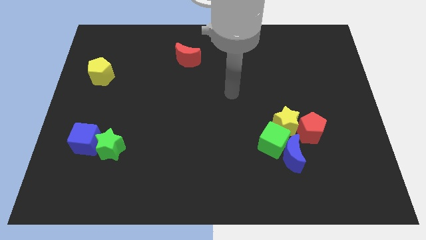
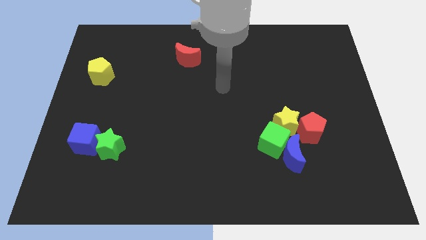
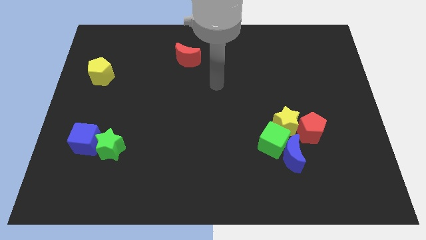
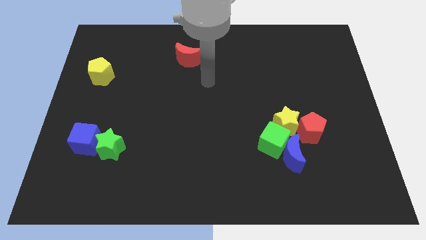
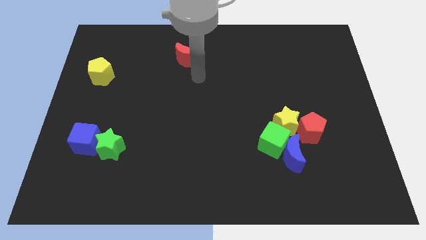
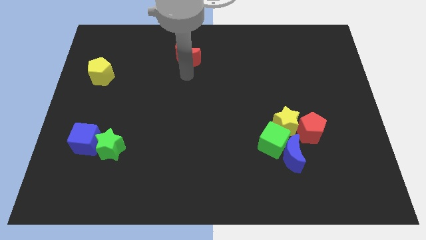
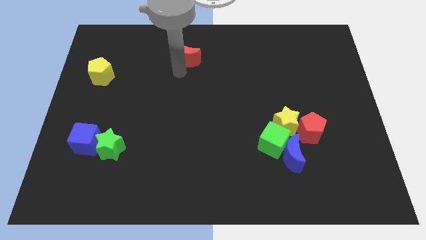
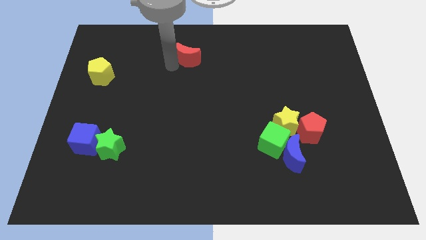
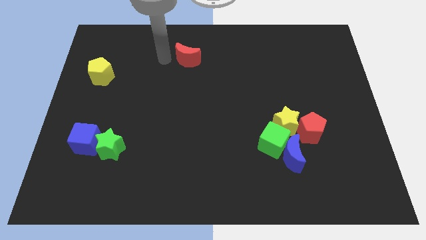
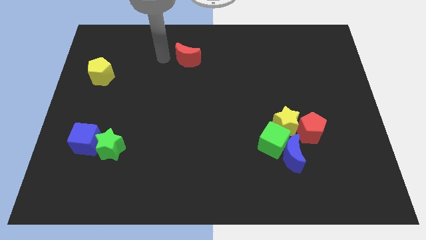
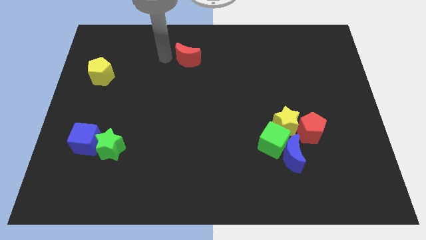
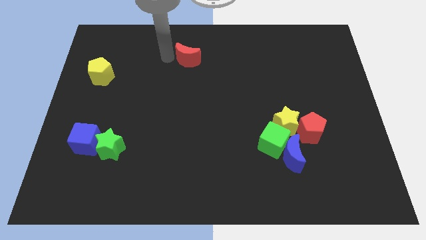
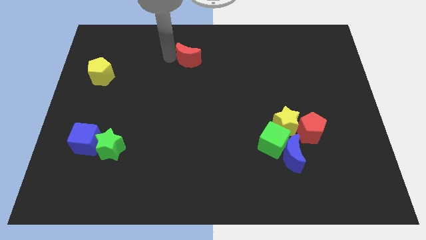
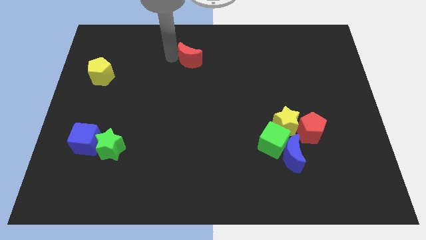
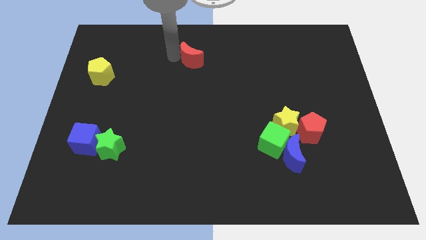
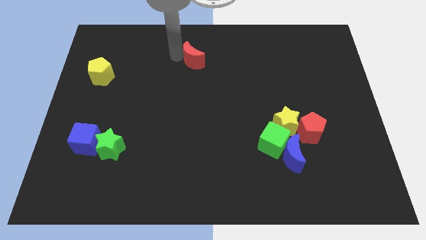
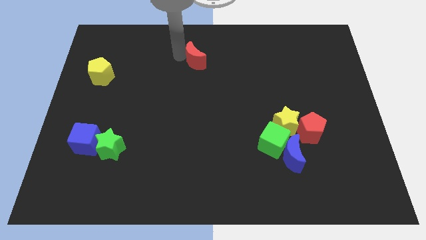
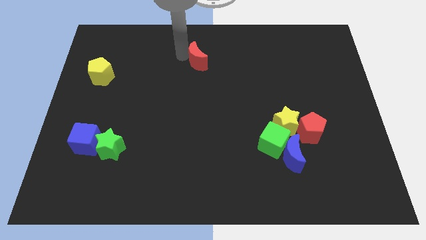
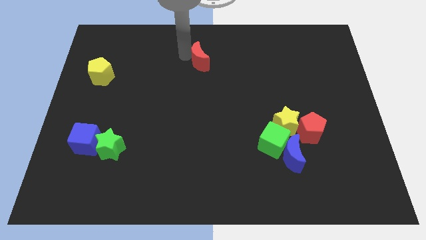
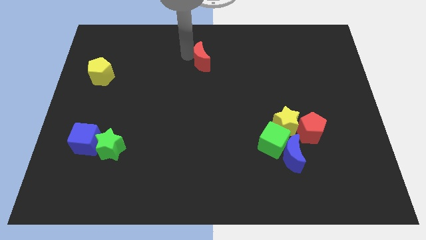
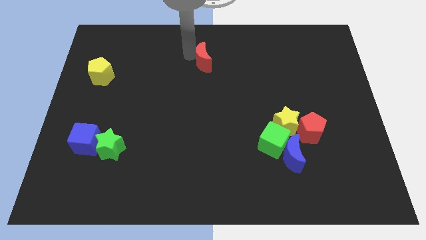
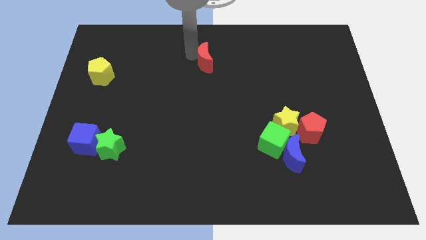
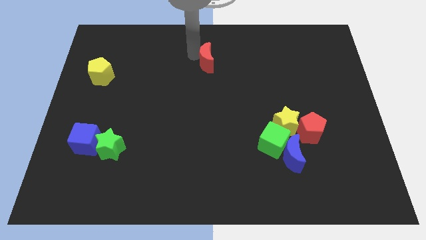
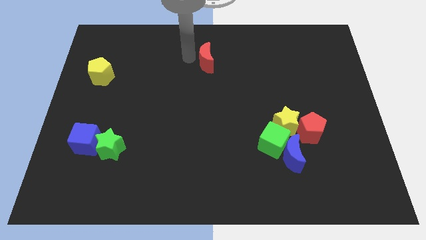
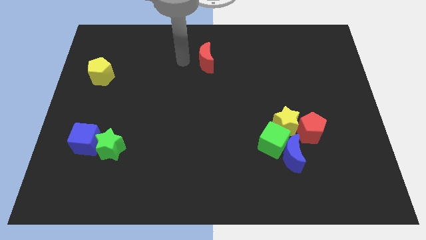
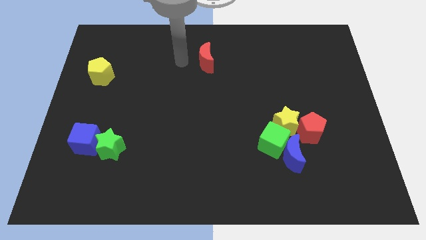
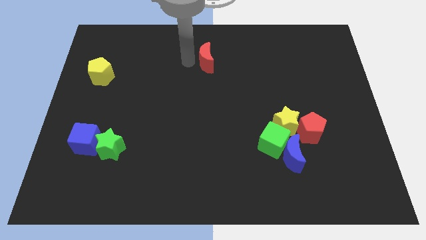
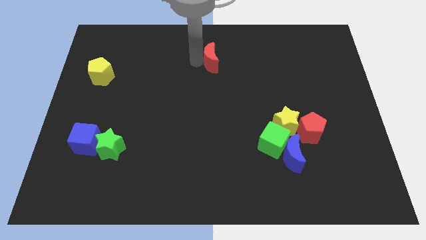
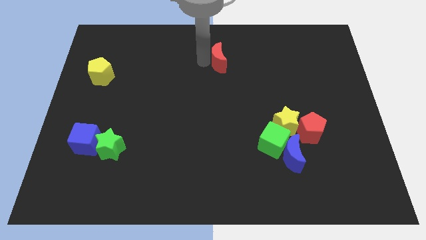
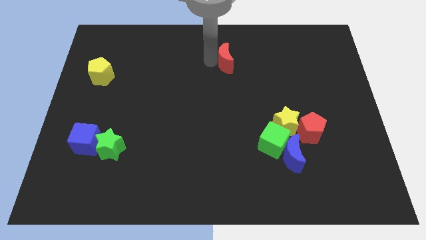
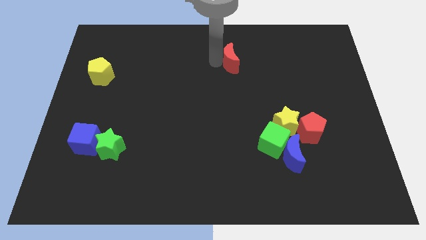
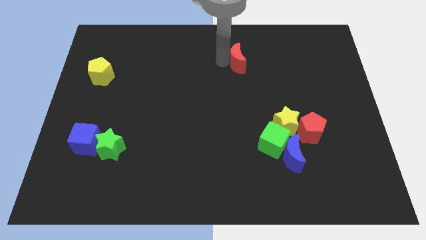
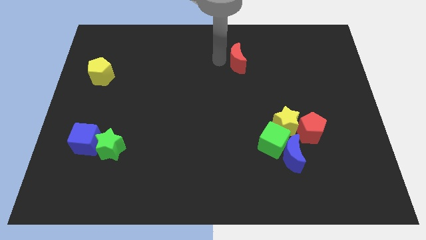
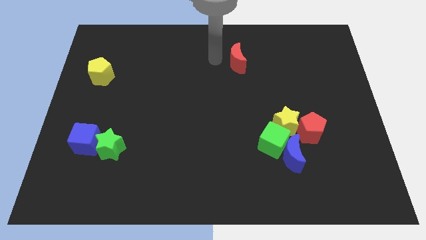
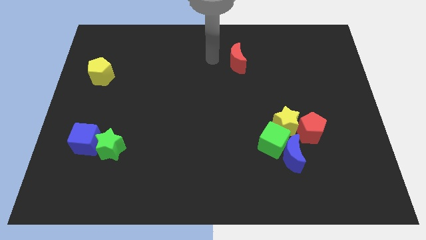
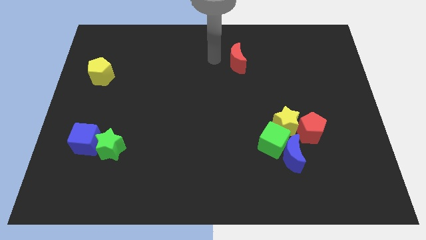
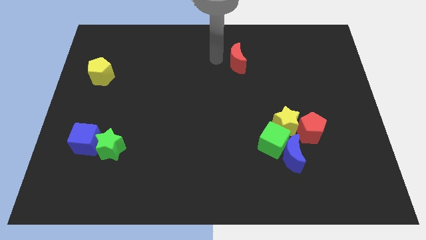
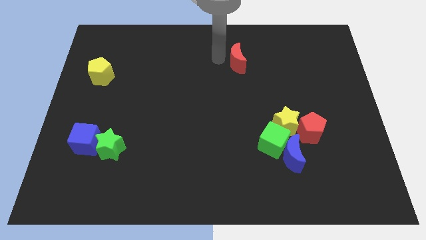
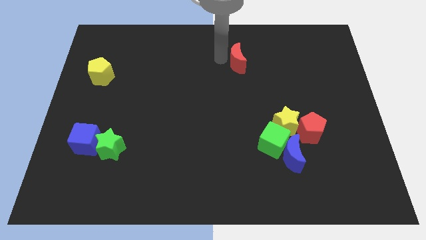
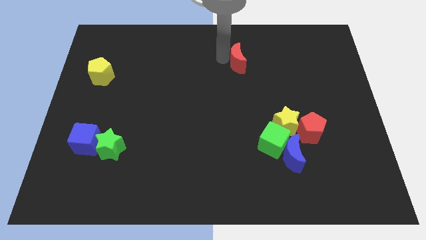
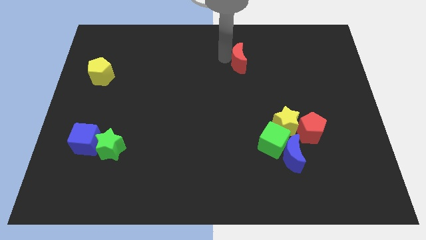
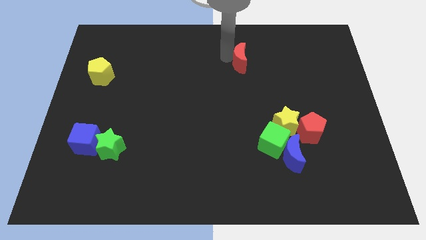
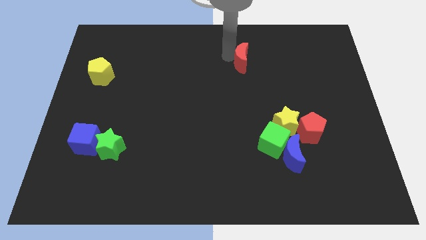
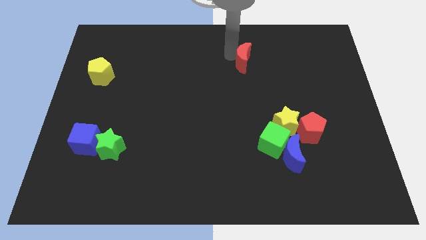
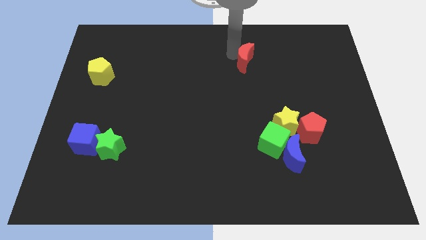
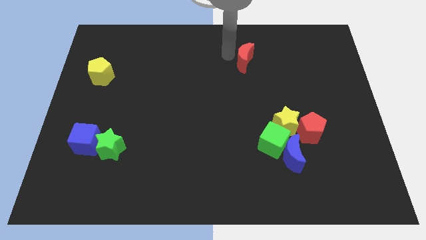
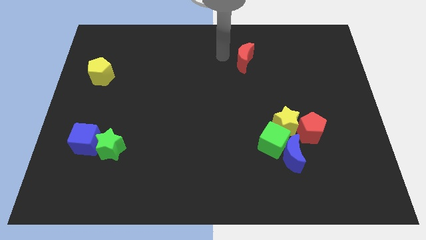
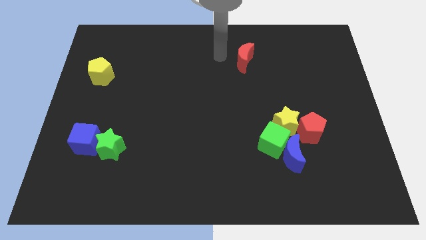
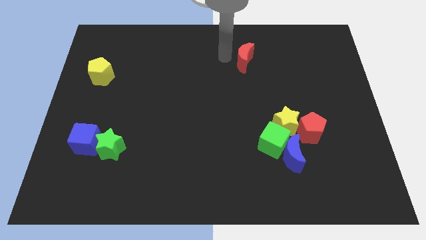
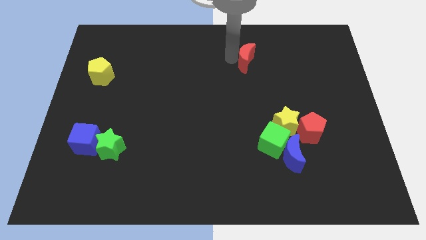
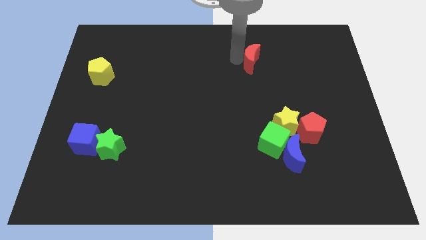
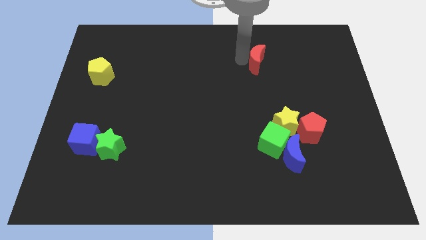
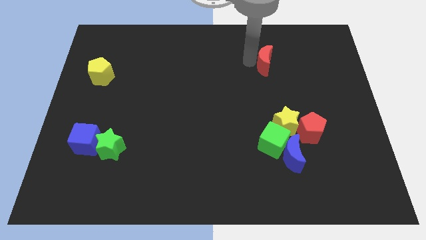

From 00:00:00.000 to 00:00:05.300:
move the red moon right

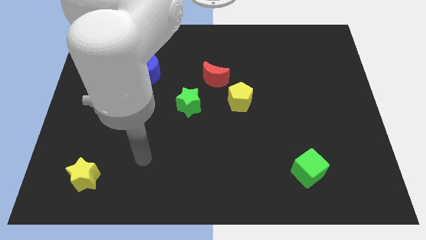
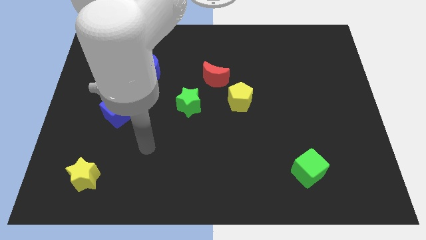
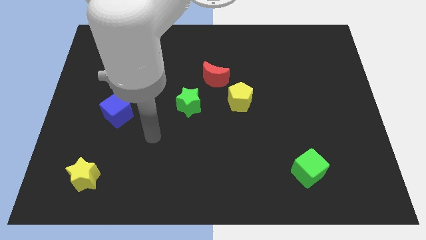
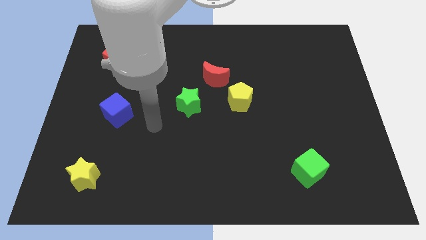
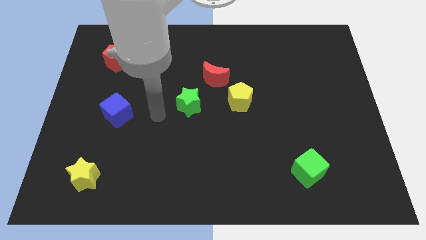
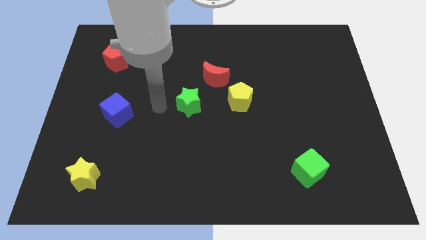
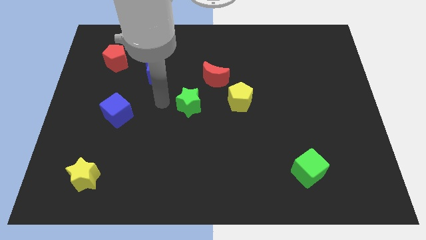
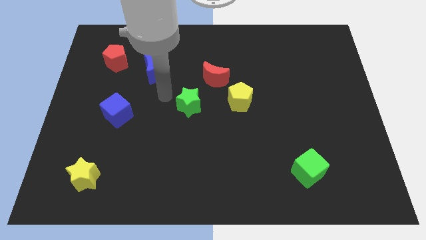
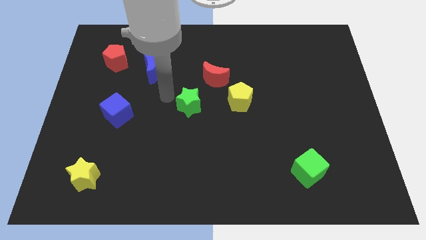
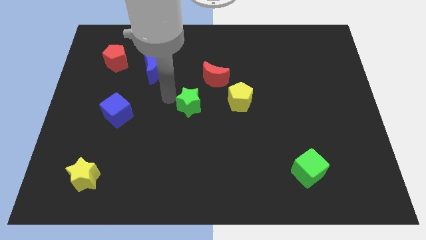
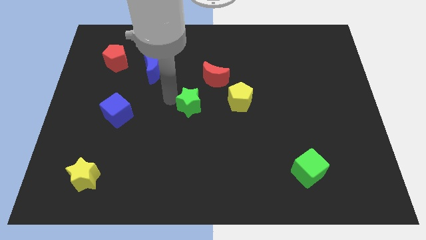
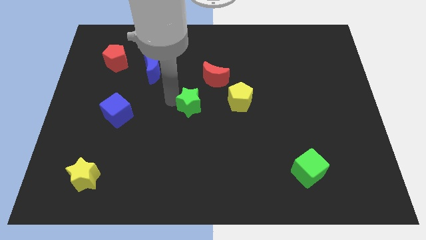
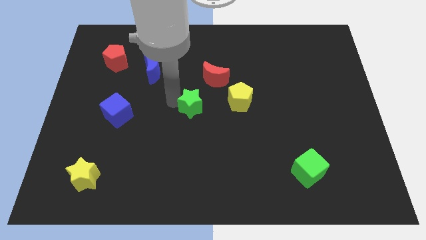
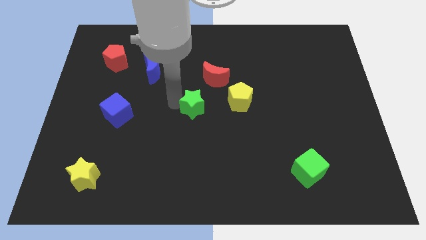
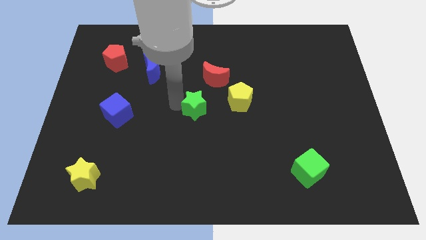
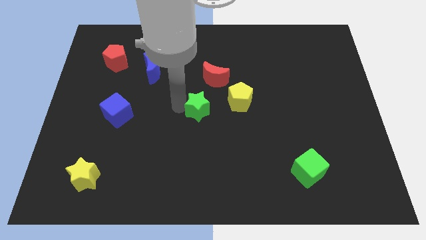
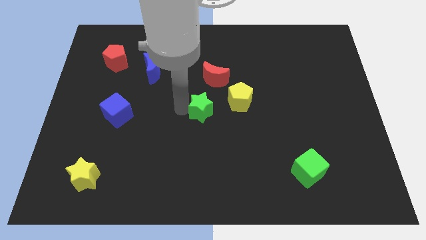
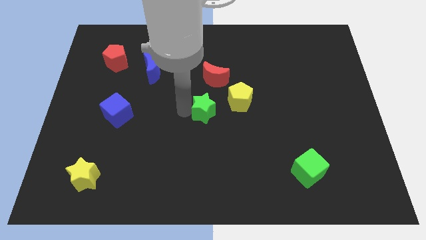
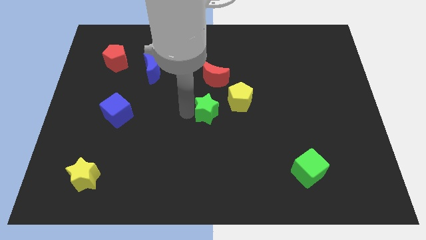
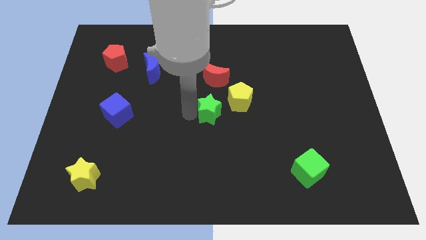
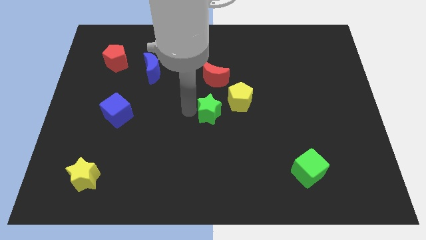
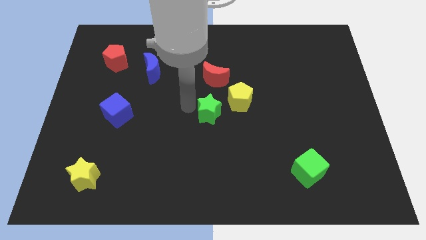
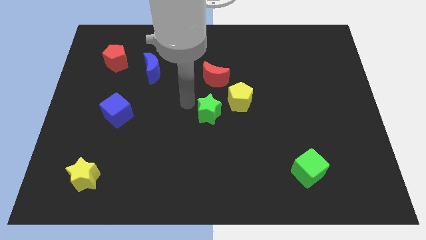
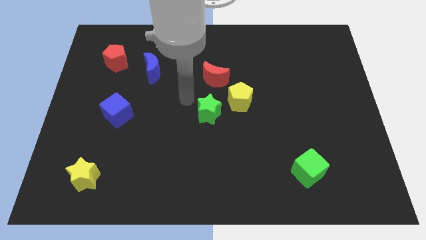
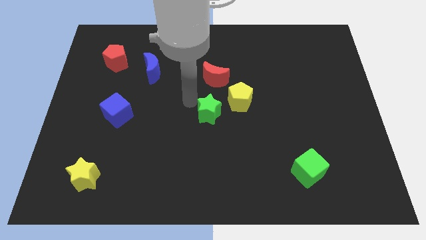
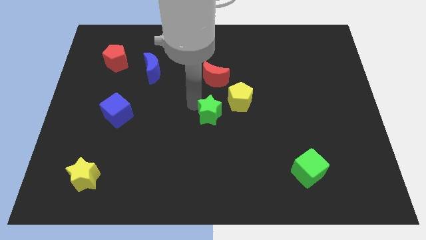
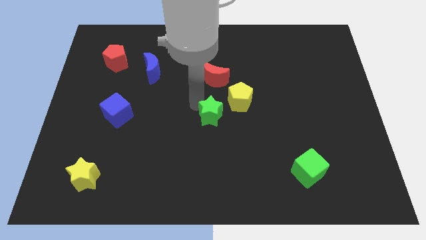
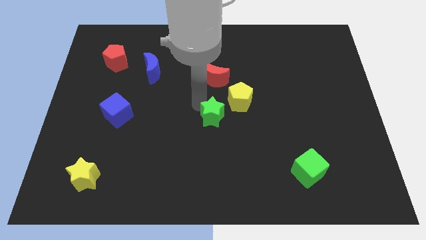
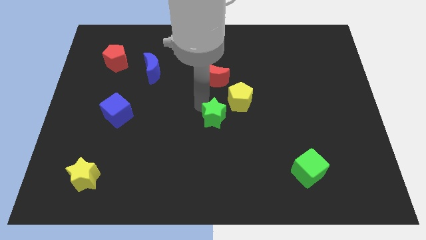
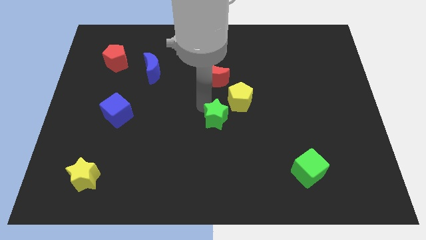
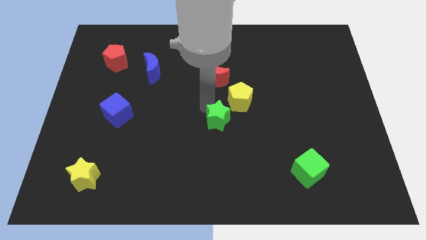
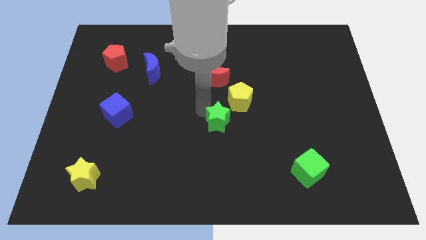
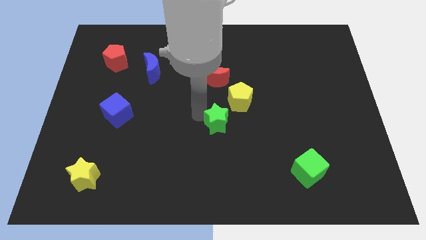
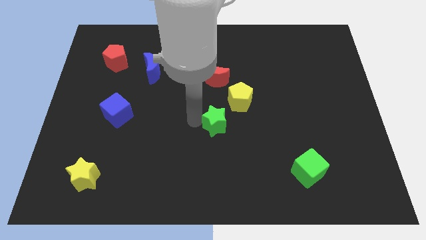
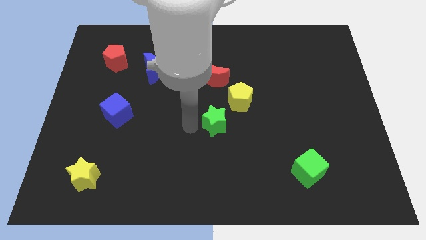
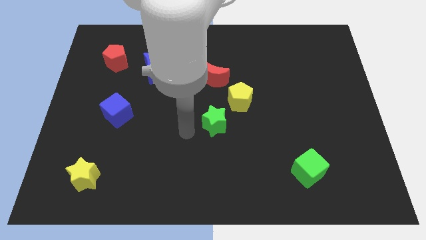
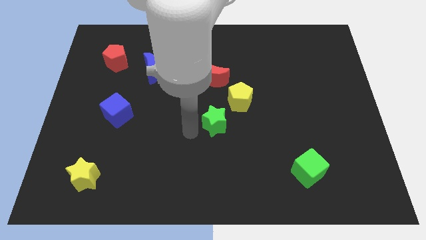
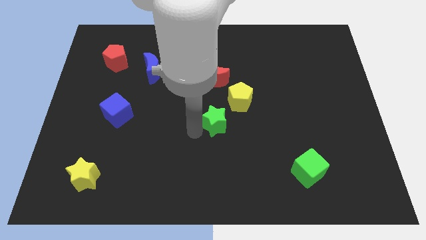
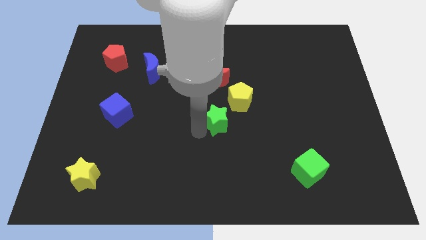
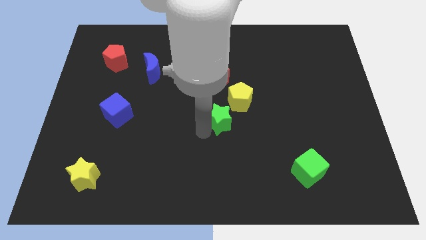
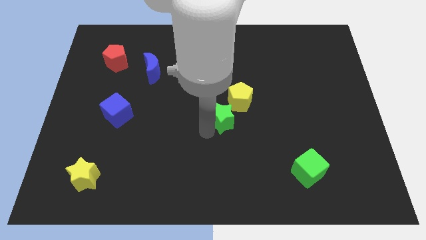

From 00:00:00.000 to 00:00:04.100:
move the green star right slightly
